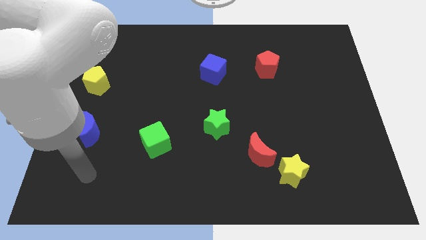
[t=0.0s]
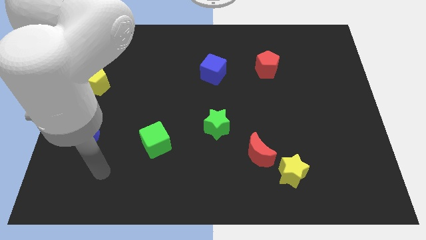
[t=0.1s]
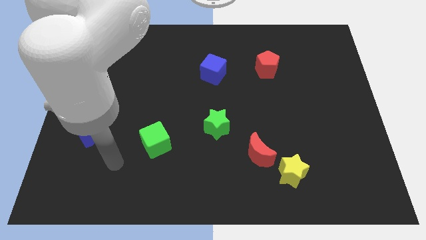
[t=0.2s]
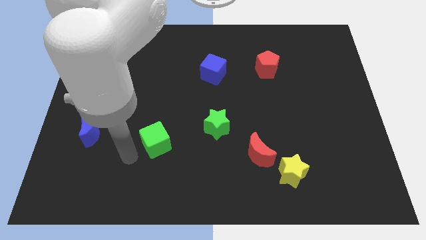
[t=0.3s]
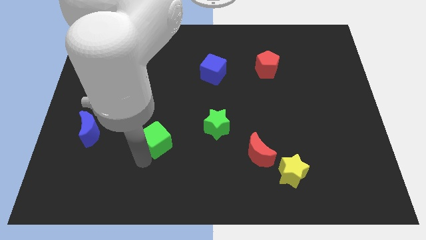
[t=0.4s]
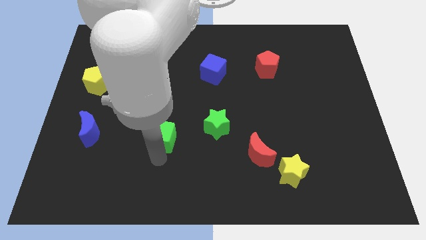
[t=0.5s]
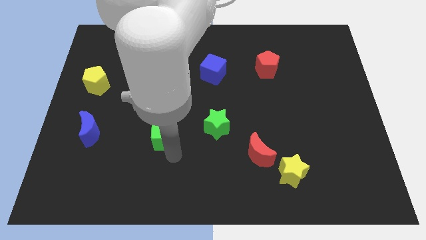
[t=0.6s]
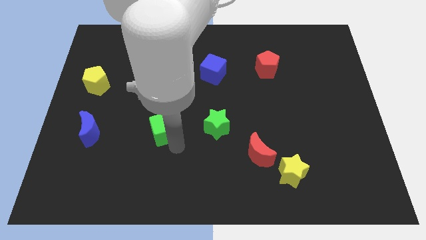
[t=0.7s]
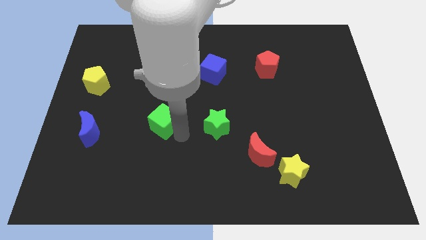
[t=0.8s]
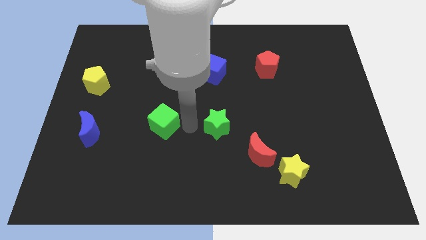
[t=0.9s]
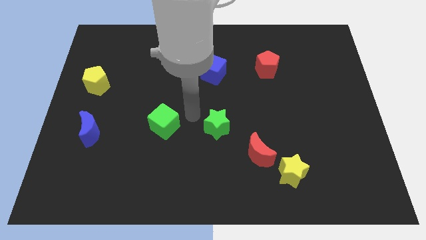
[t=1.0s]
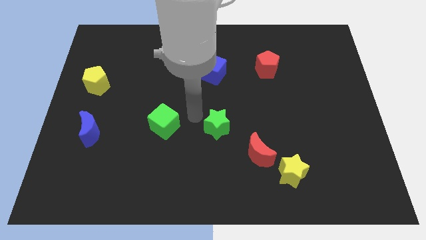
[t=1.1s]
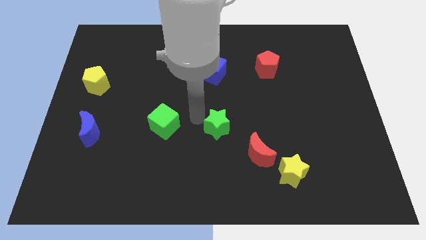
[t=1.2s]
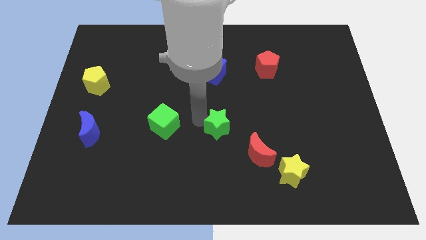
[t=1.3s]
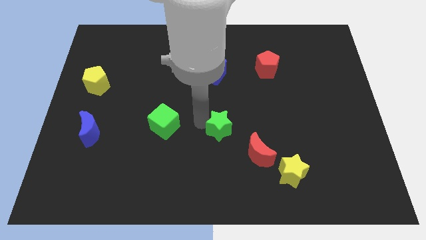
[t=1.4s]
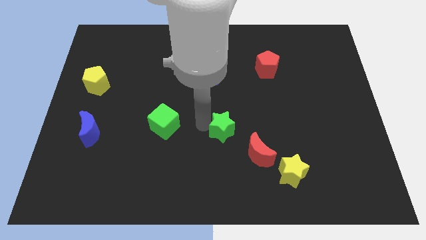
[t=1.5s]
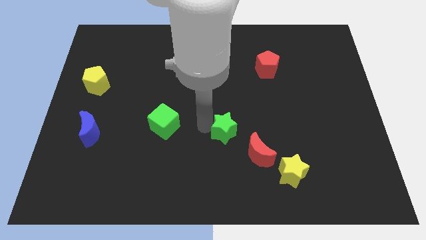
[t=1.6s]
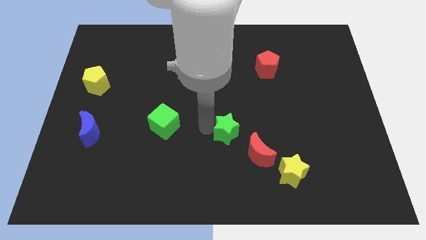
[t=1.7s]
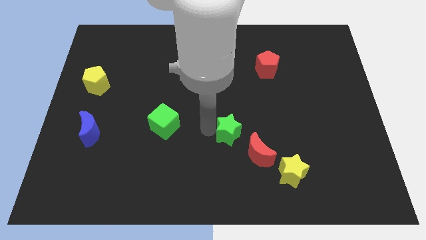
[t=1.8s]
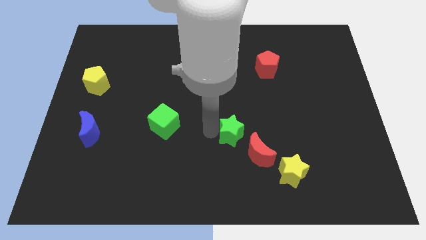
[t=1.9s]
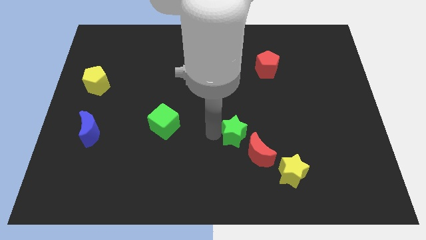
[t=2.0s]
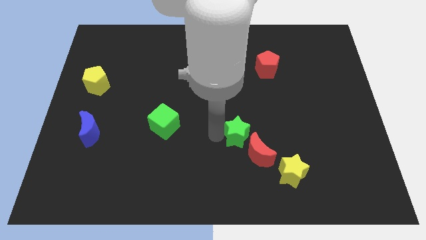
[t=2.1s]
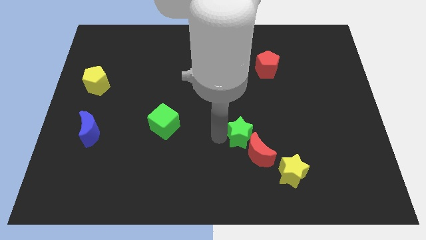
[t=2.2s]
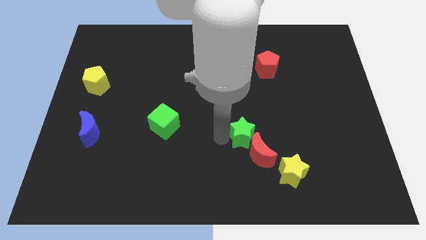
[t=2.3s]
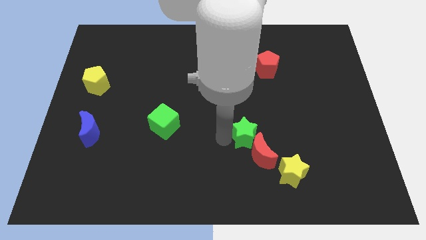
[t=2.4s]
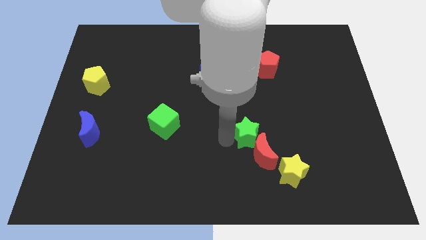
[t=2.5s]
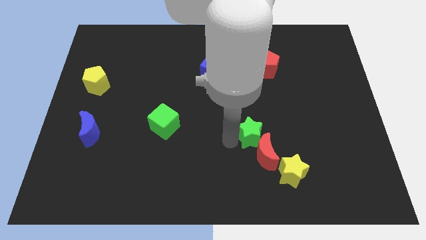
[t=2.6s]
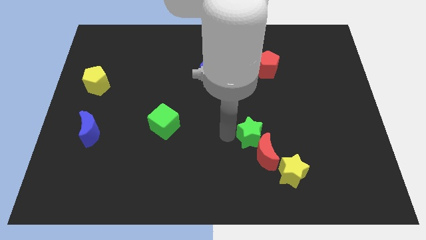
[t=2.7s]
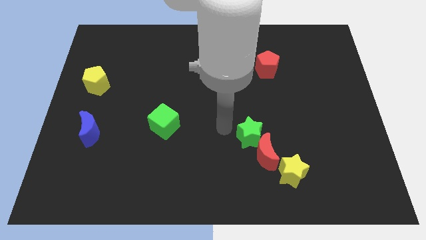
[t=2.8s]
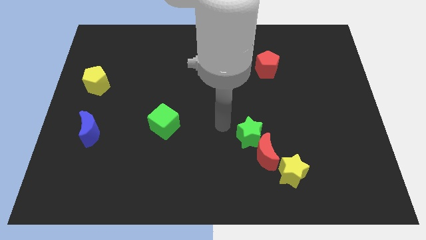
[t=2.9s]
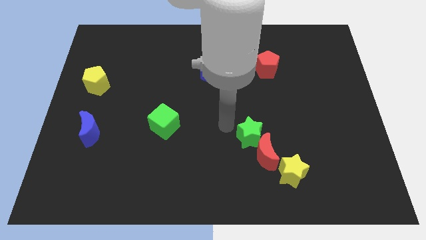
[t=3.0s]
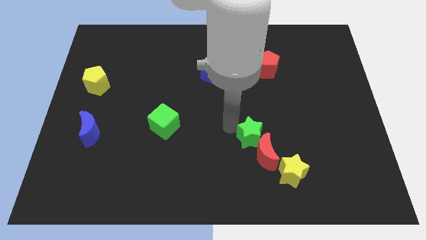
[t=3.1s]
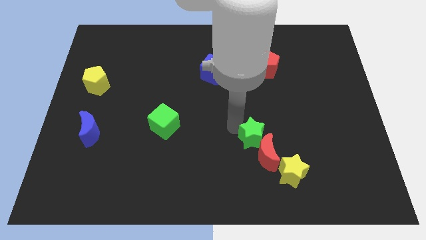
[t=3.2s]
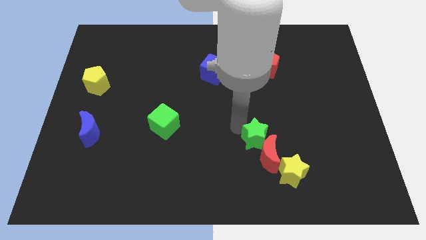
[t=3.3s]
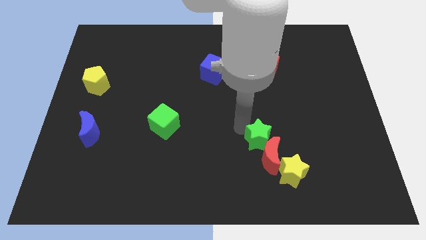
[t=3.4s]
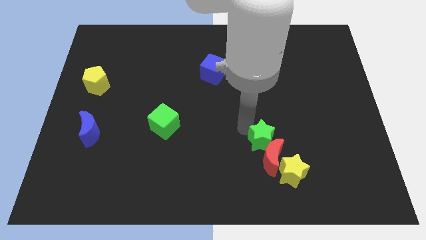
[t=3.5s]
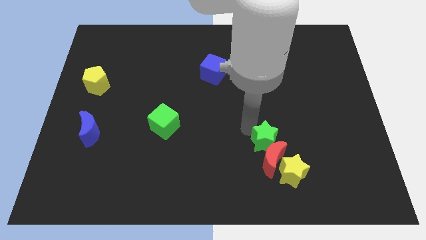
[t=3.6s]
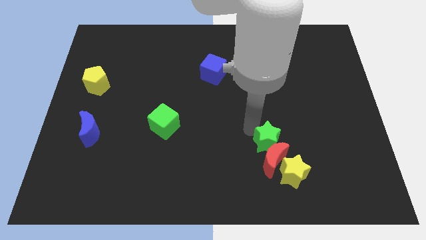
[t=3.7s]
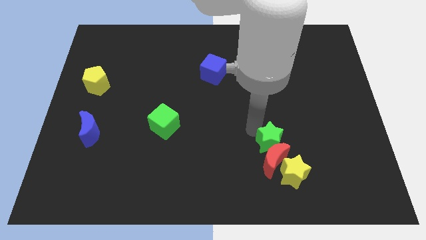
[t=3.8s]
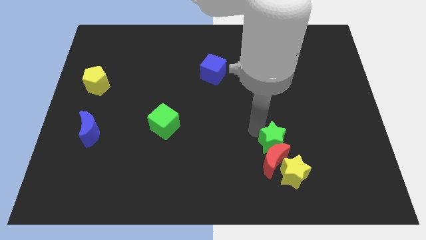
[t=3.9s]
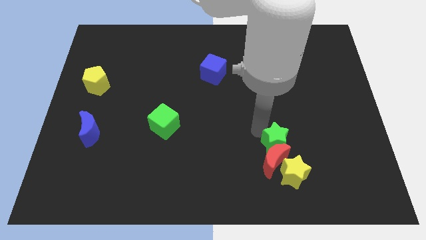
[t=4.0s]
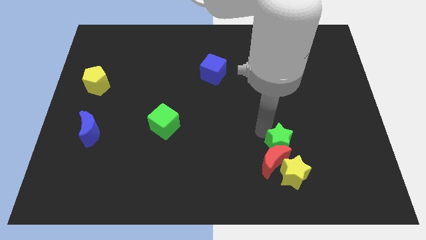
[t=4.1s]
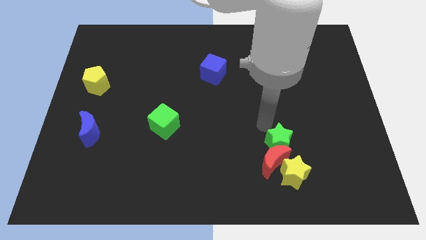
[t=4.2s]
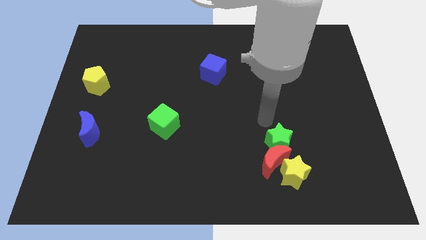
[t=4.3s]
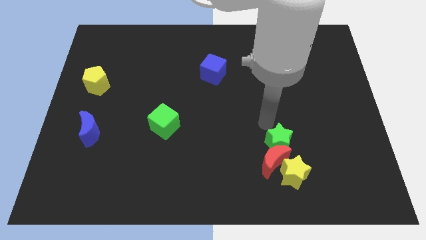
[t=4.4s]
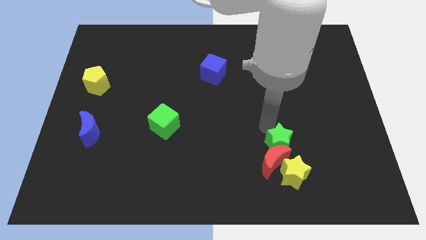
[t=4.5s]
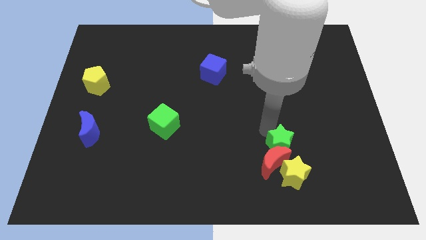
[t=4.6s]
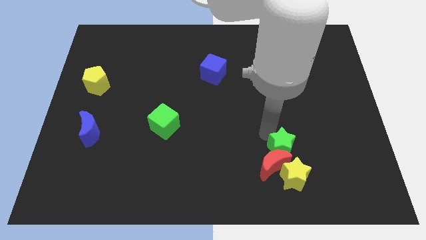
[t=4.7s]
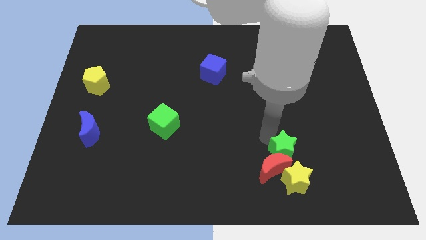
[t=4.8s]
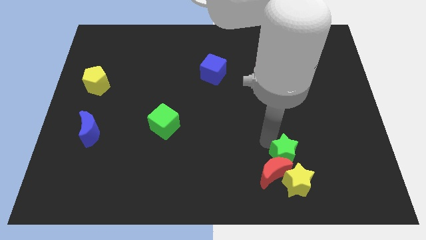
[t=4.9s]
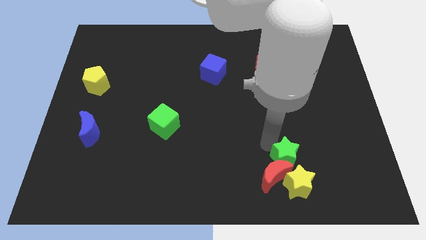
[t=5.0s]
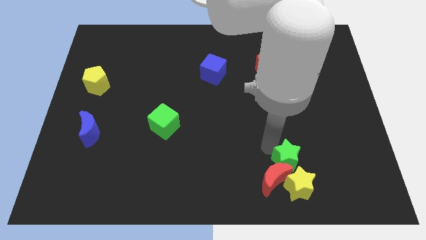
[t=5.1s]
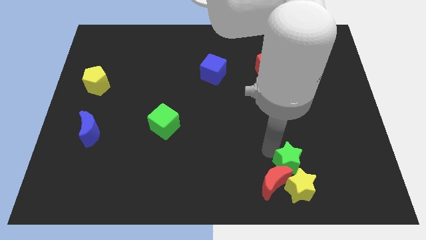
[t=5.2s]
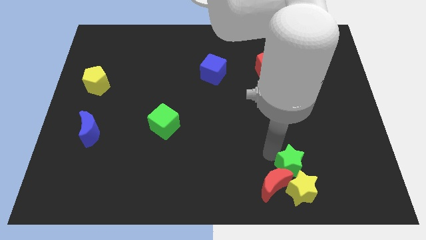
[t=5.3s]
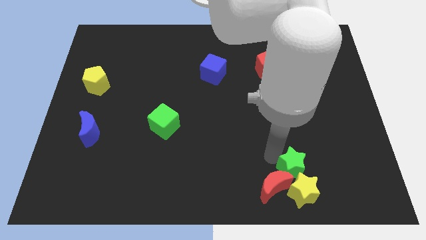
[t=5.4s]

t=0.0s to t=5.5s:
move the green star close to the yellow star

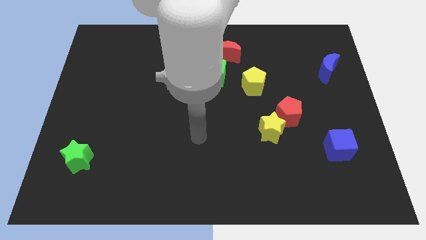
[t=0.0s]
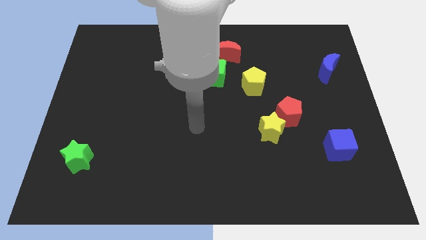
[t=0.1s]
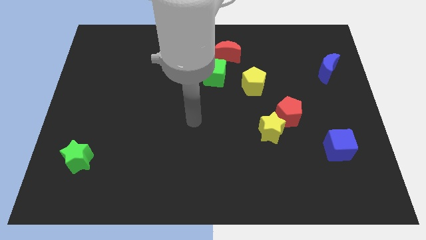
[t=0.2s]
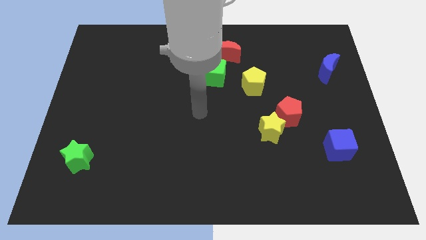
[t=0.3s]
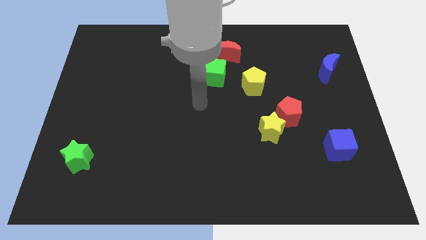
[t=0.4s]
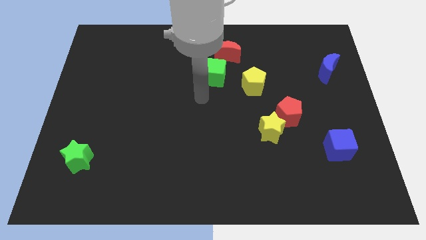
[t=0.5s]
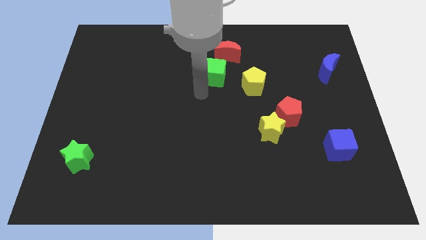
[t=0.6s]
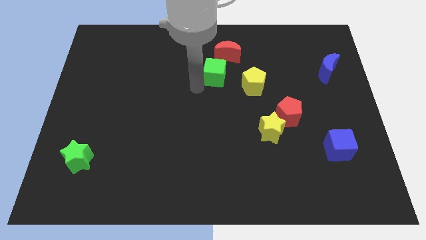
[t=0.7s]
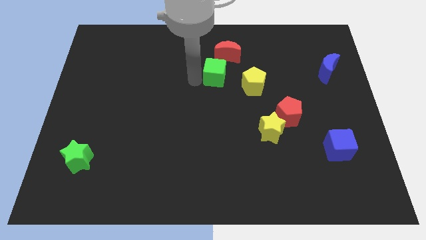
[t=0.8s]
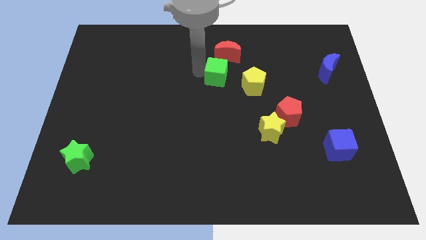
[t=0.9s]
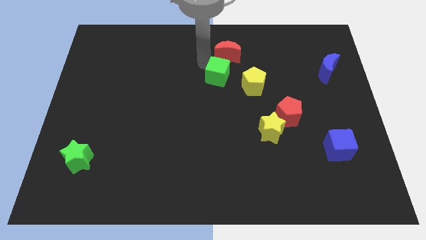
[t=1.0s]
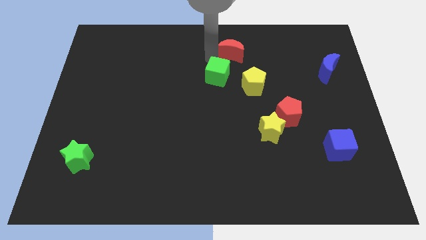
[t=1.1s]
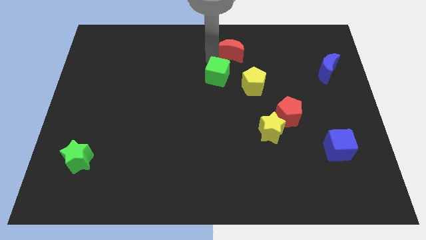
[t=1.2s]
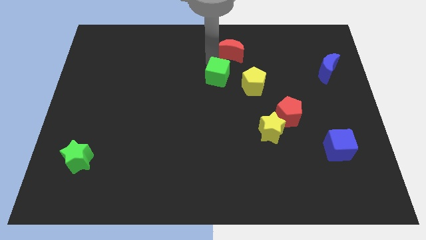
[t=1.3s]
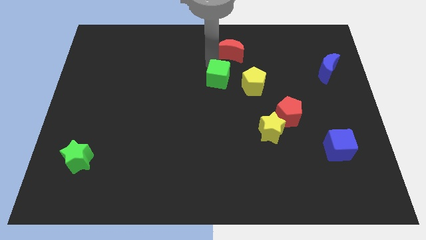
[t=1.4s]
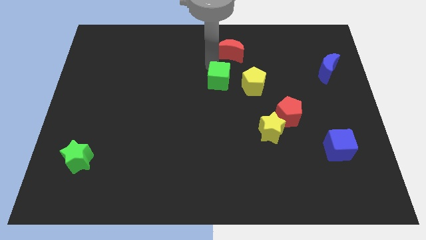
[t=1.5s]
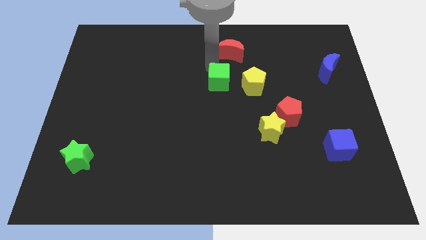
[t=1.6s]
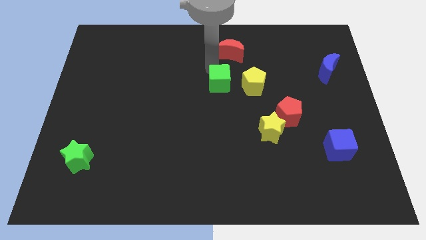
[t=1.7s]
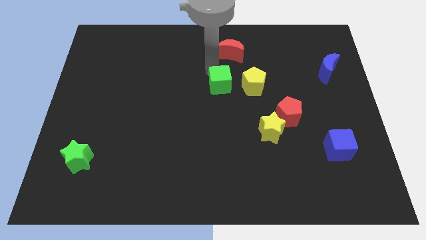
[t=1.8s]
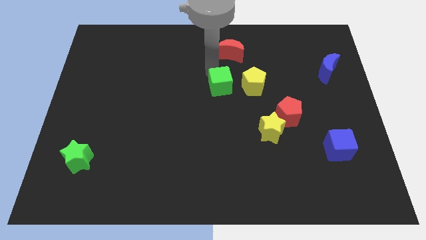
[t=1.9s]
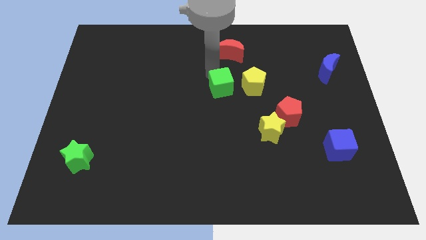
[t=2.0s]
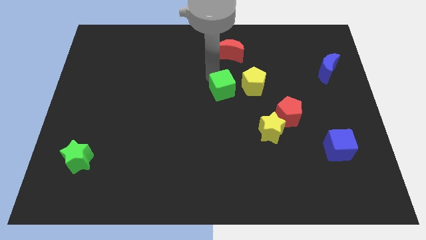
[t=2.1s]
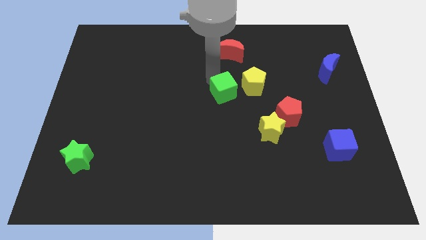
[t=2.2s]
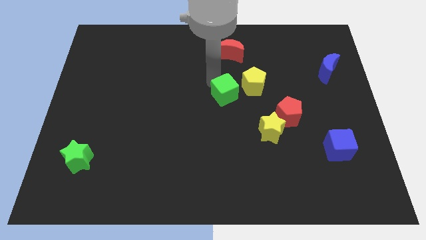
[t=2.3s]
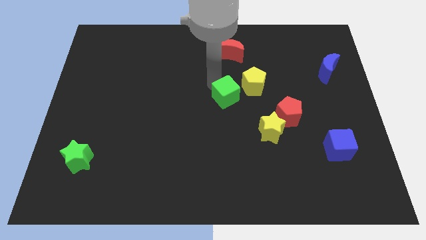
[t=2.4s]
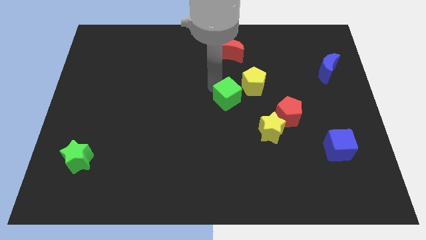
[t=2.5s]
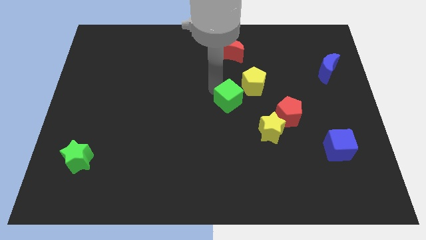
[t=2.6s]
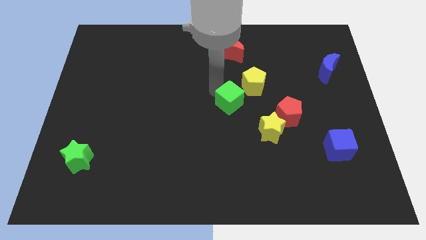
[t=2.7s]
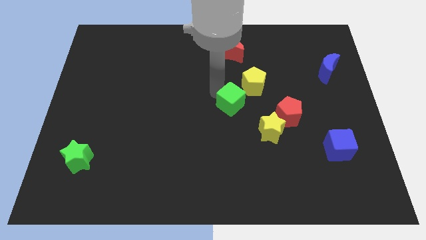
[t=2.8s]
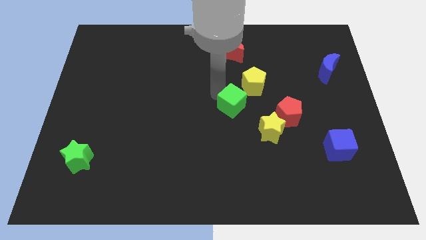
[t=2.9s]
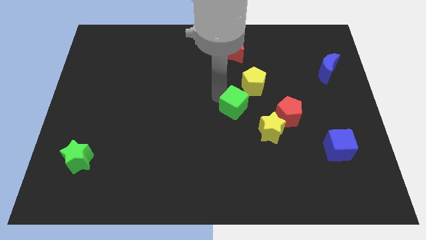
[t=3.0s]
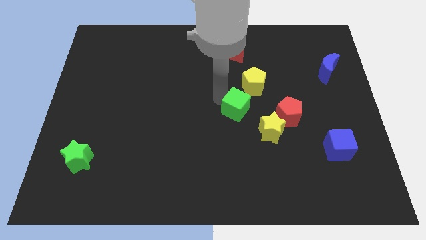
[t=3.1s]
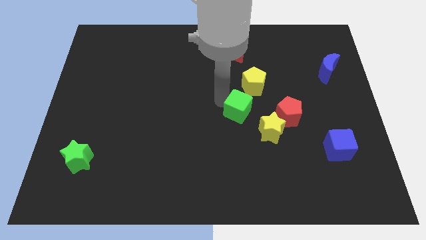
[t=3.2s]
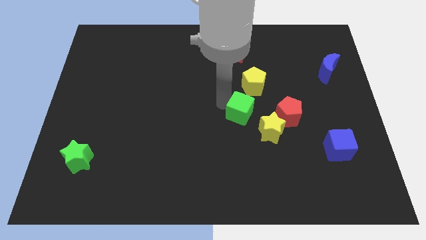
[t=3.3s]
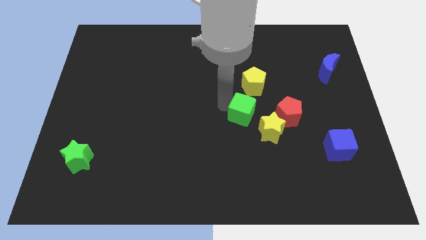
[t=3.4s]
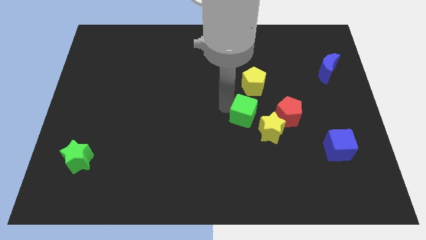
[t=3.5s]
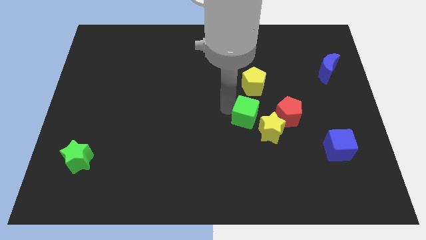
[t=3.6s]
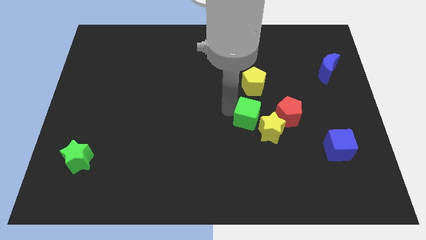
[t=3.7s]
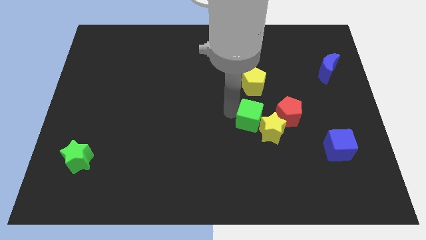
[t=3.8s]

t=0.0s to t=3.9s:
slide the green cube towards the yellow star
